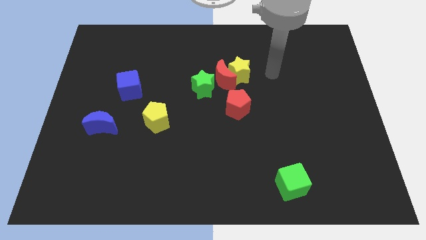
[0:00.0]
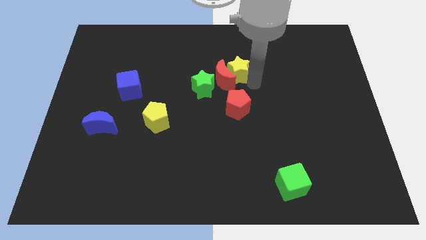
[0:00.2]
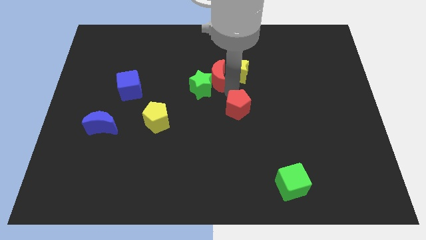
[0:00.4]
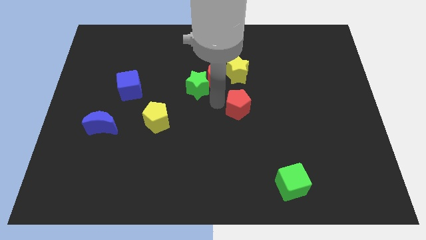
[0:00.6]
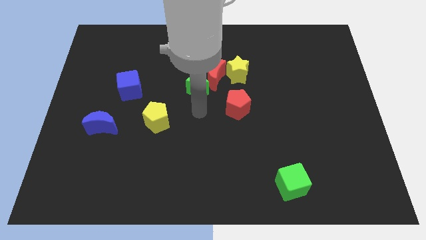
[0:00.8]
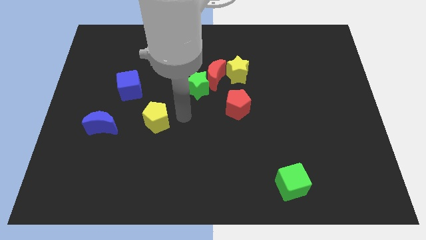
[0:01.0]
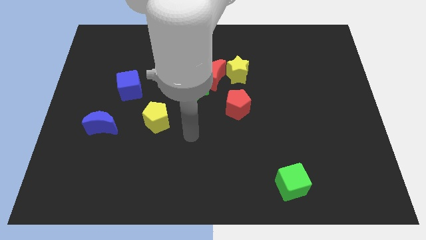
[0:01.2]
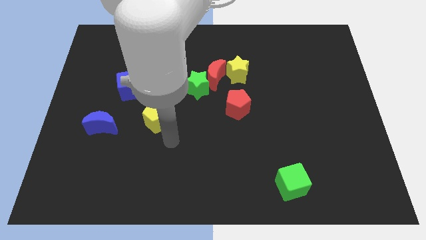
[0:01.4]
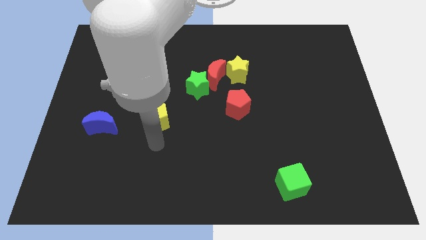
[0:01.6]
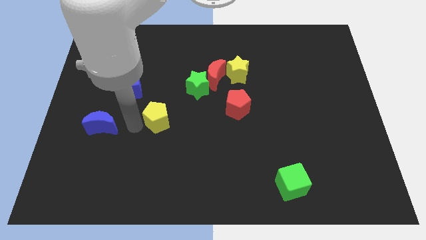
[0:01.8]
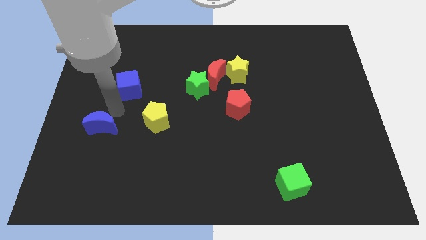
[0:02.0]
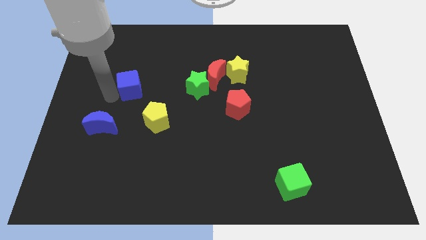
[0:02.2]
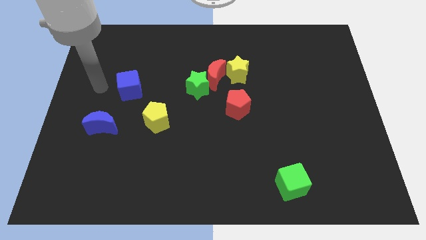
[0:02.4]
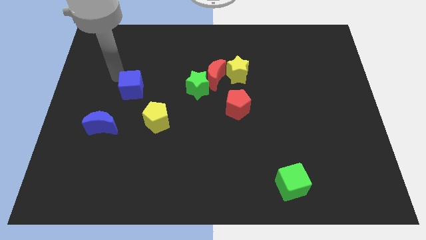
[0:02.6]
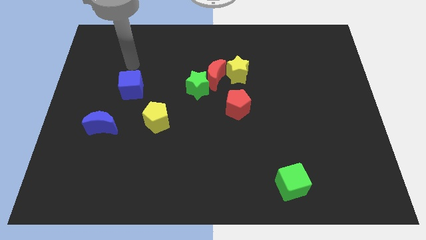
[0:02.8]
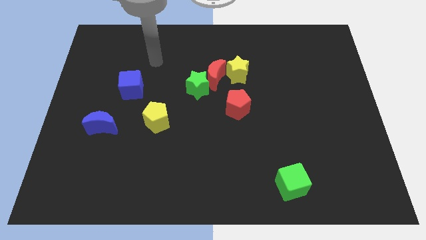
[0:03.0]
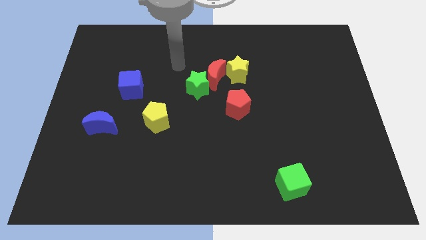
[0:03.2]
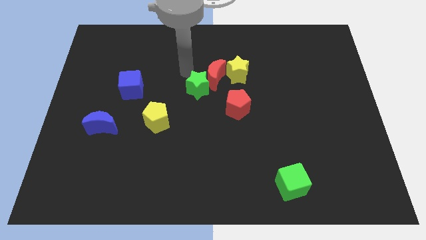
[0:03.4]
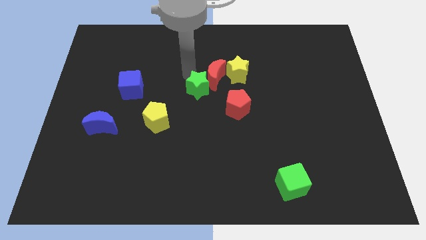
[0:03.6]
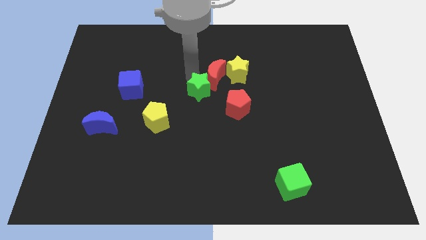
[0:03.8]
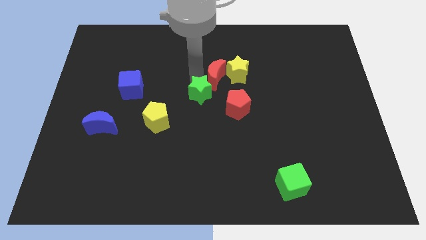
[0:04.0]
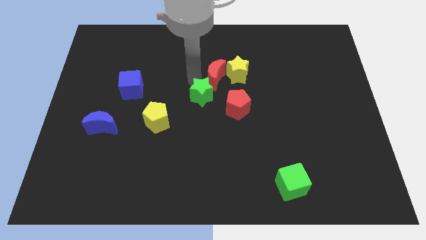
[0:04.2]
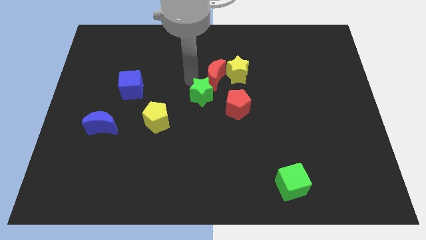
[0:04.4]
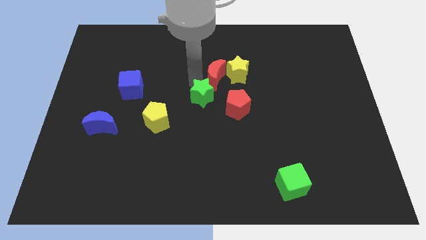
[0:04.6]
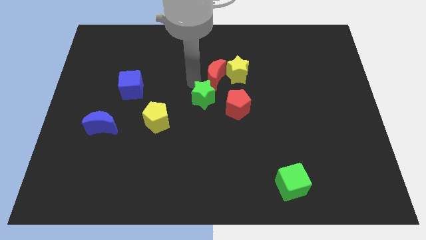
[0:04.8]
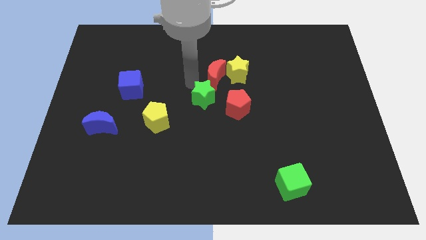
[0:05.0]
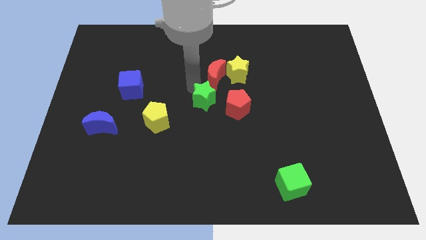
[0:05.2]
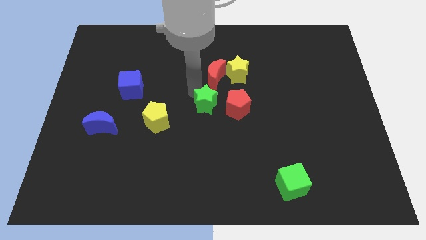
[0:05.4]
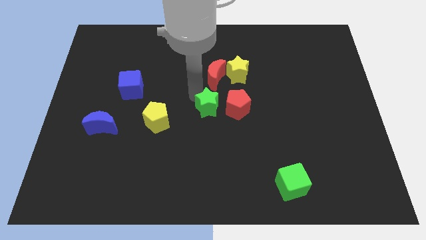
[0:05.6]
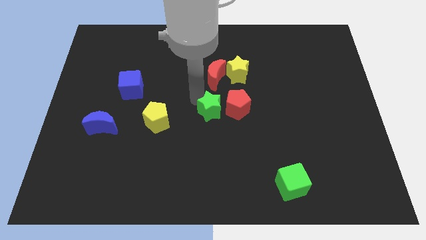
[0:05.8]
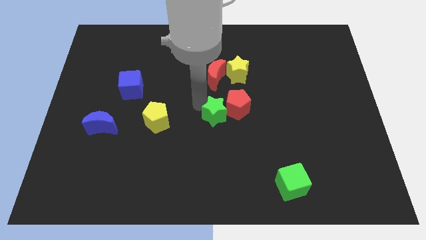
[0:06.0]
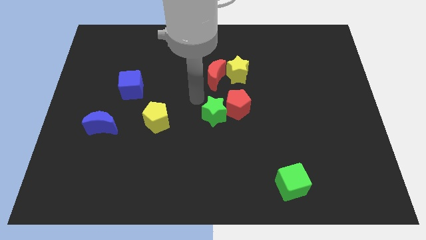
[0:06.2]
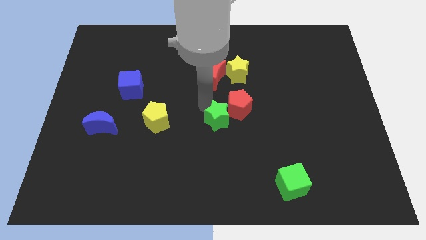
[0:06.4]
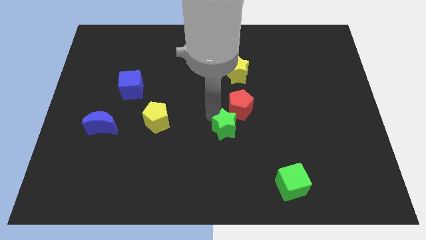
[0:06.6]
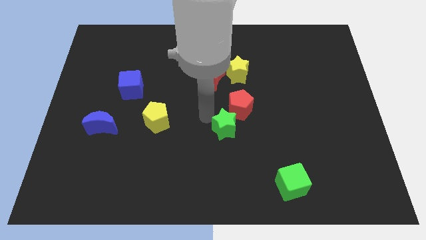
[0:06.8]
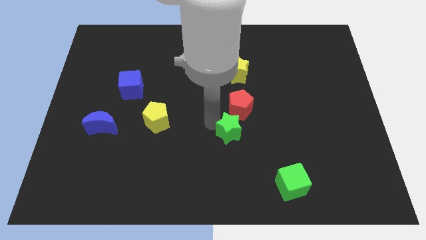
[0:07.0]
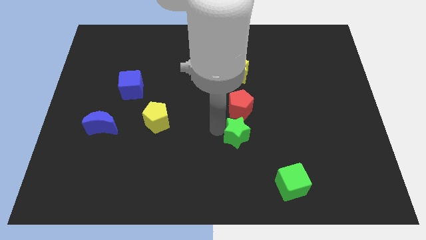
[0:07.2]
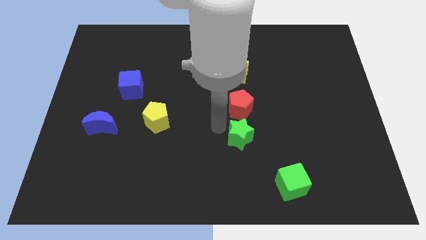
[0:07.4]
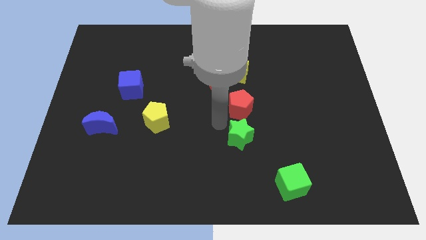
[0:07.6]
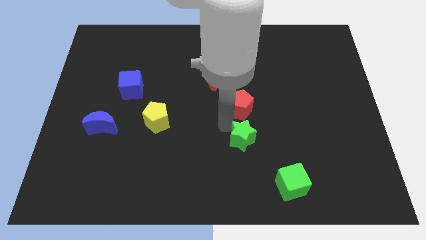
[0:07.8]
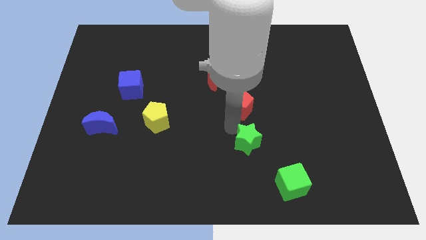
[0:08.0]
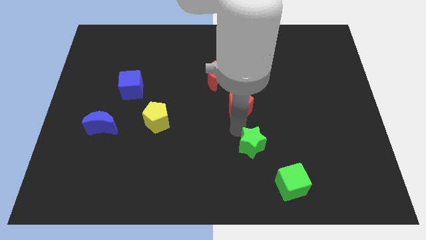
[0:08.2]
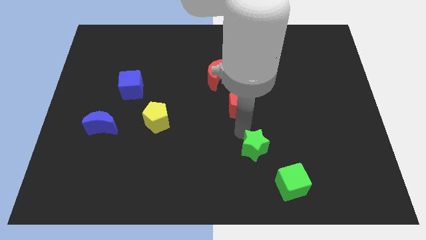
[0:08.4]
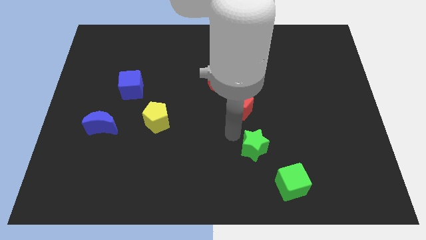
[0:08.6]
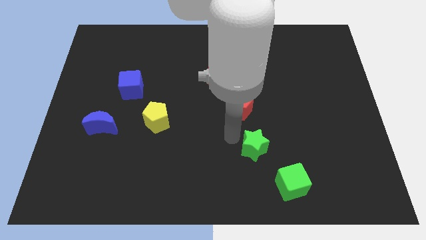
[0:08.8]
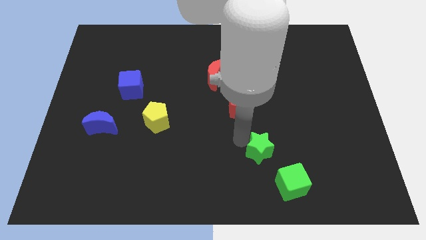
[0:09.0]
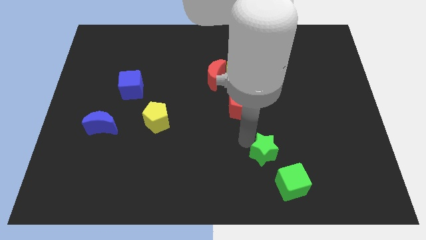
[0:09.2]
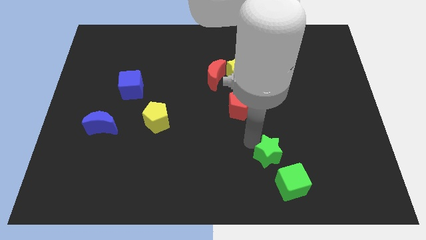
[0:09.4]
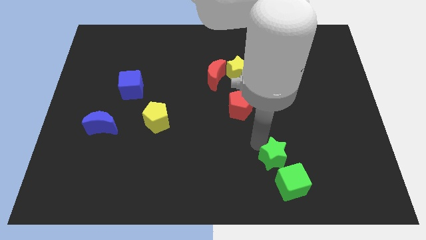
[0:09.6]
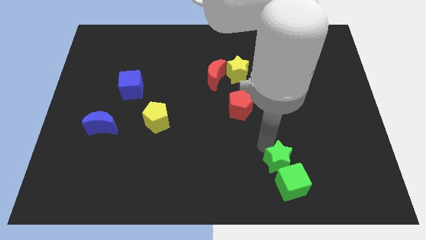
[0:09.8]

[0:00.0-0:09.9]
slide the green star next to the green cube

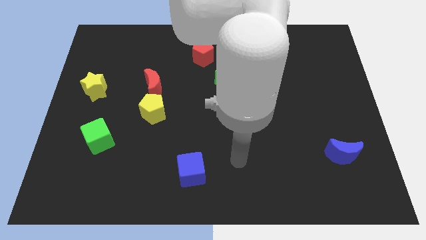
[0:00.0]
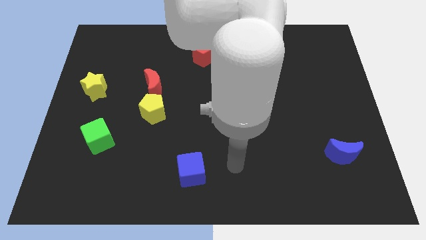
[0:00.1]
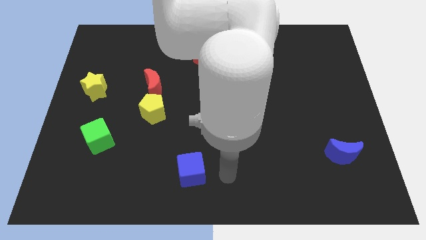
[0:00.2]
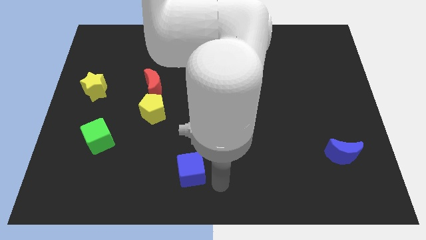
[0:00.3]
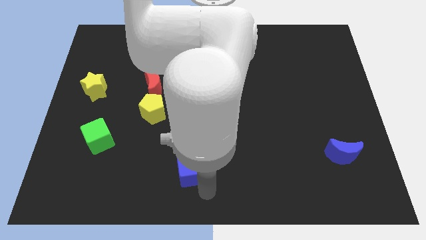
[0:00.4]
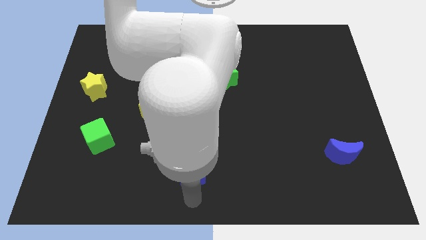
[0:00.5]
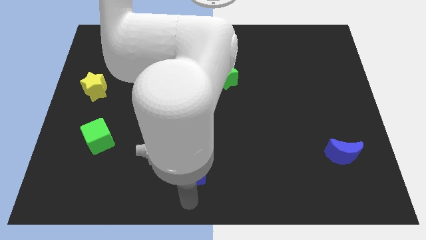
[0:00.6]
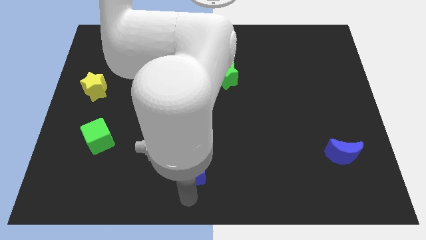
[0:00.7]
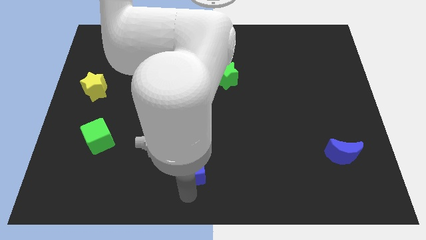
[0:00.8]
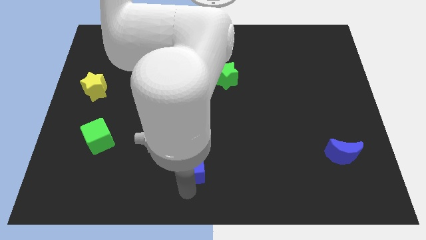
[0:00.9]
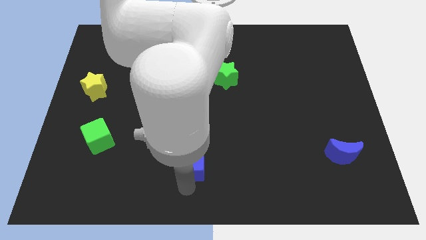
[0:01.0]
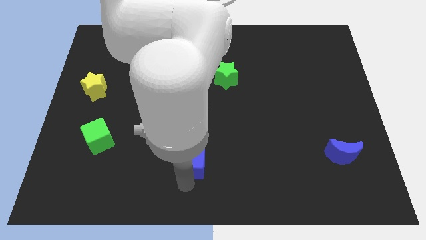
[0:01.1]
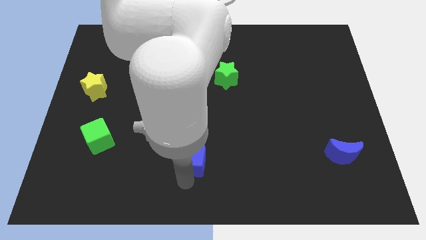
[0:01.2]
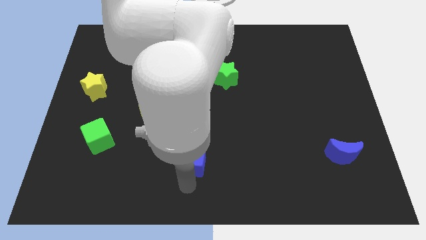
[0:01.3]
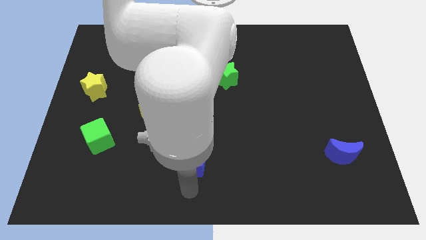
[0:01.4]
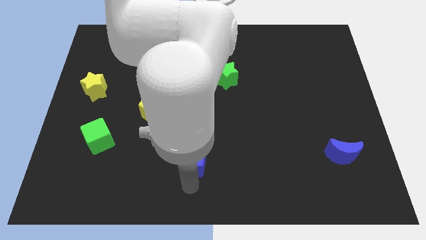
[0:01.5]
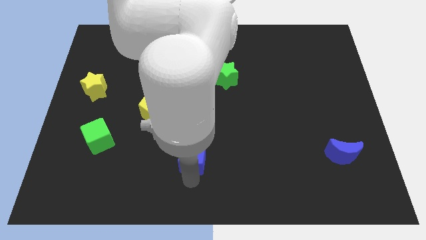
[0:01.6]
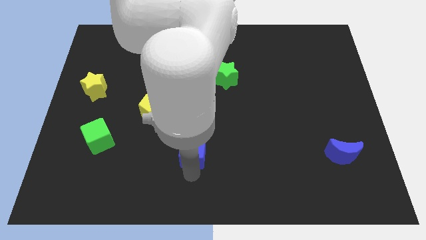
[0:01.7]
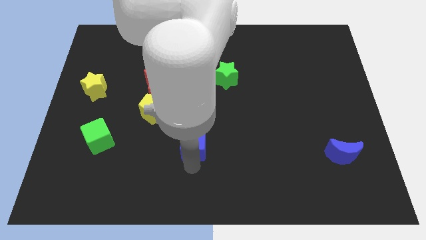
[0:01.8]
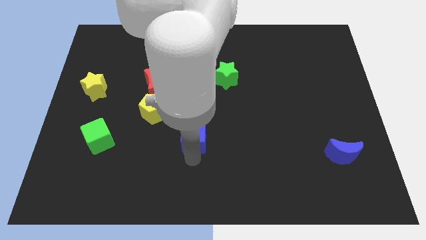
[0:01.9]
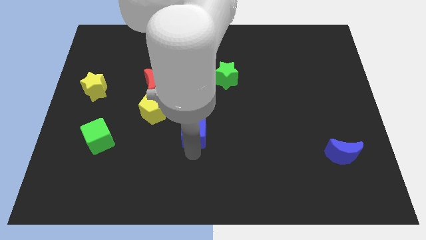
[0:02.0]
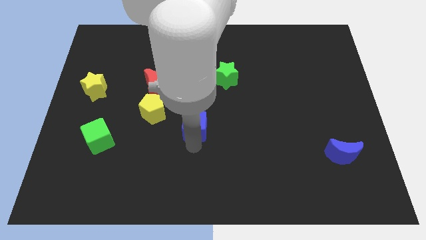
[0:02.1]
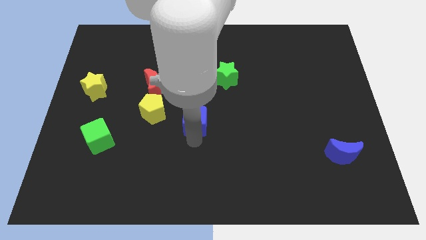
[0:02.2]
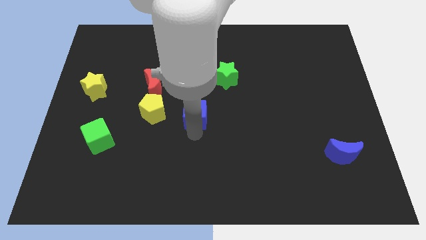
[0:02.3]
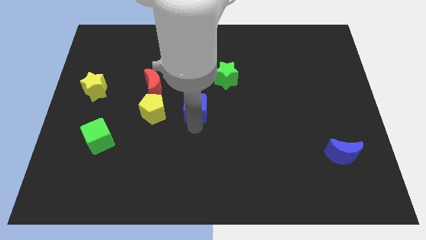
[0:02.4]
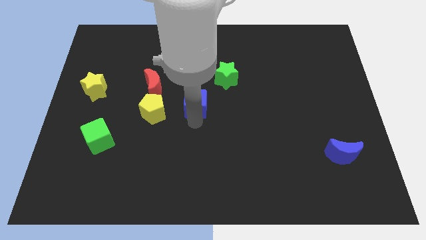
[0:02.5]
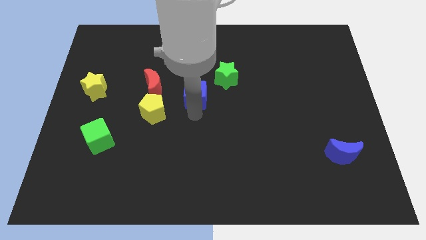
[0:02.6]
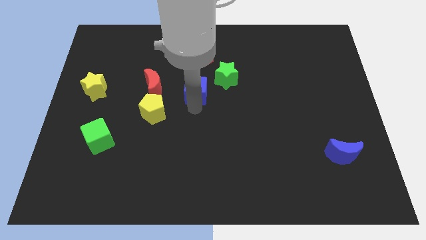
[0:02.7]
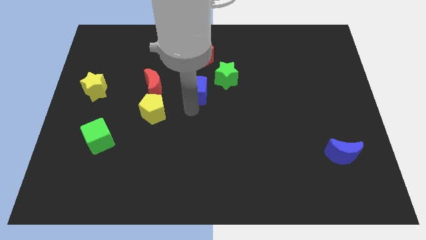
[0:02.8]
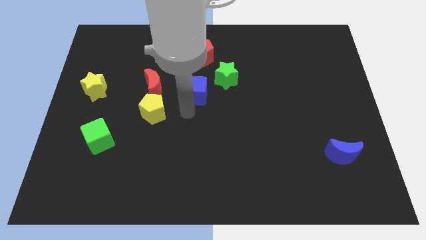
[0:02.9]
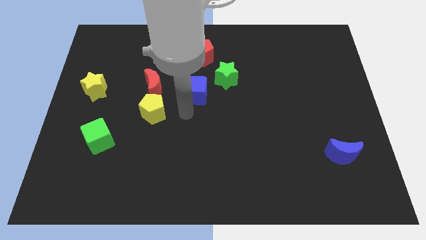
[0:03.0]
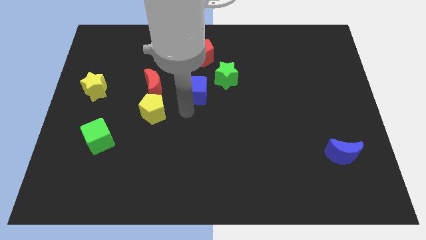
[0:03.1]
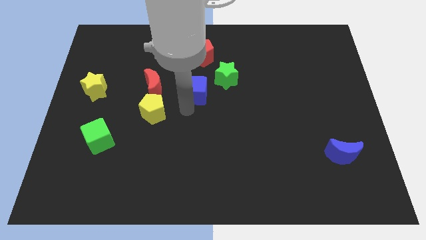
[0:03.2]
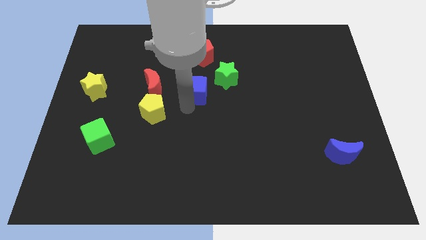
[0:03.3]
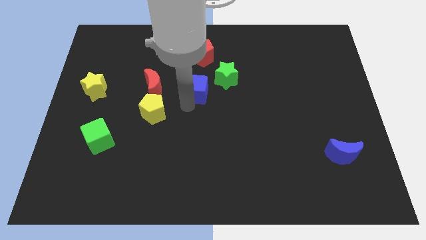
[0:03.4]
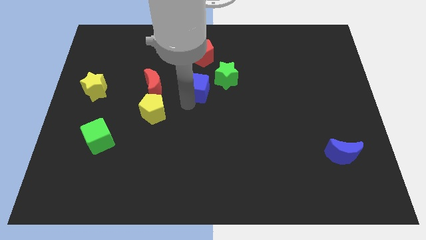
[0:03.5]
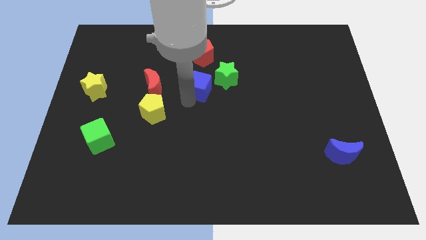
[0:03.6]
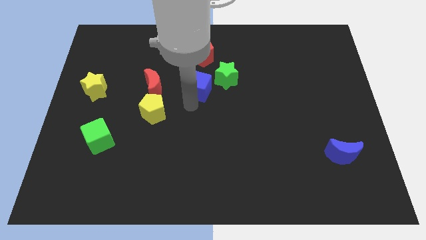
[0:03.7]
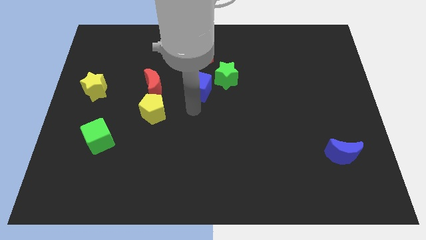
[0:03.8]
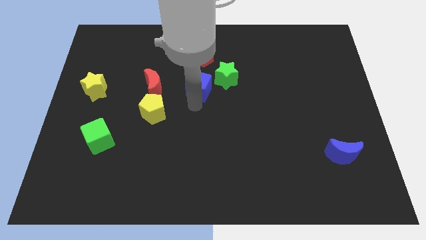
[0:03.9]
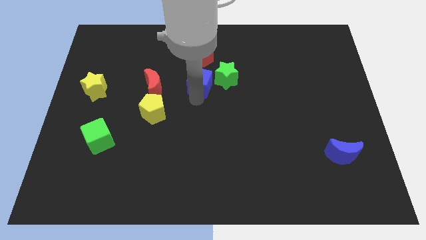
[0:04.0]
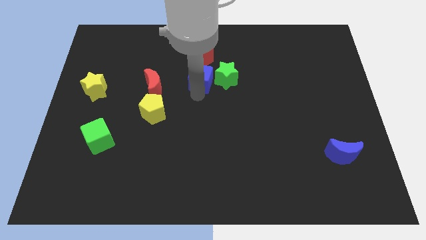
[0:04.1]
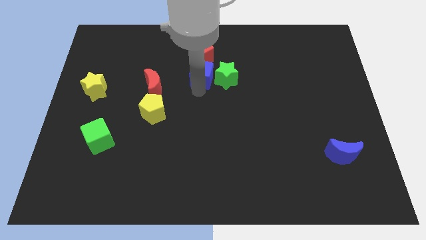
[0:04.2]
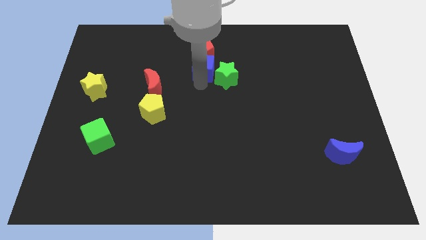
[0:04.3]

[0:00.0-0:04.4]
put the blue cube to the red pentagon
